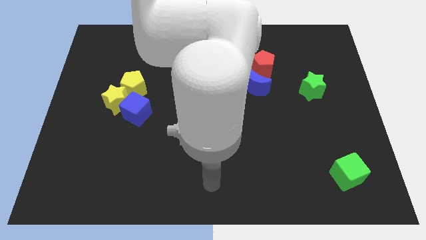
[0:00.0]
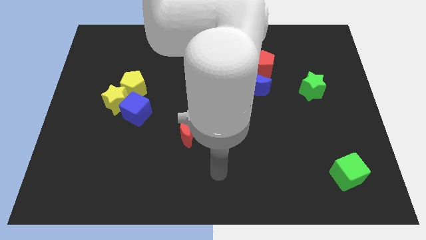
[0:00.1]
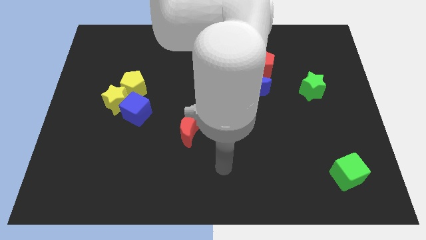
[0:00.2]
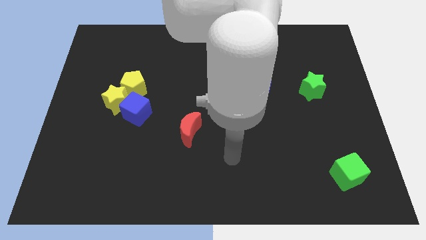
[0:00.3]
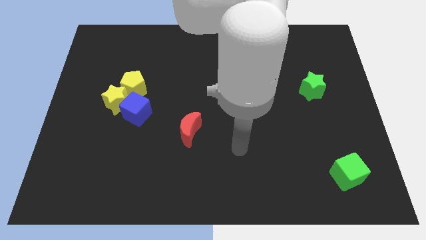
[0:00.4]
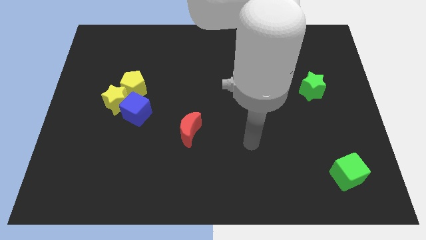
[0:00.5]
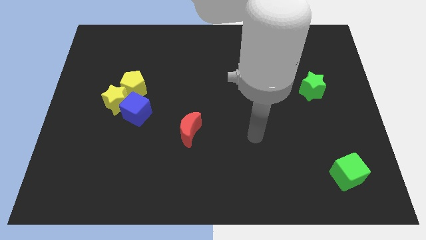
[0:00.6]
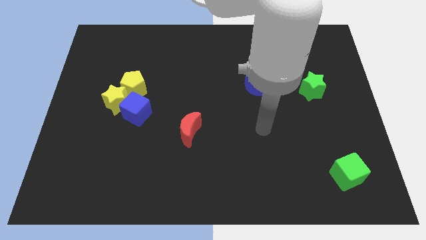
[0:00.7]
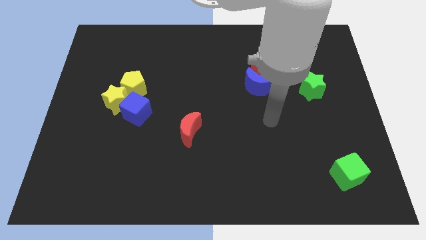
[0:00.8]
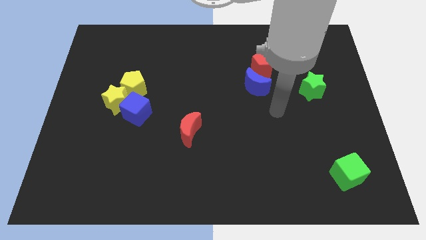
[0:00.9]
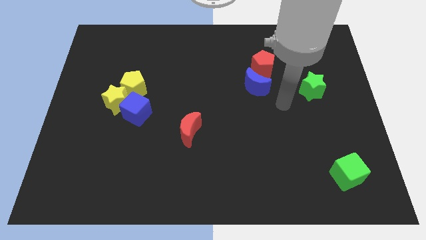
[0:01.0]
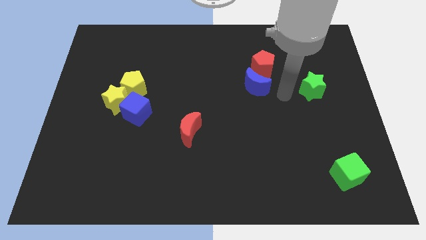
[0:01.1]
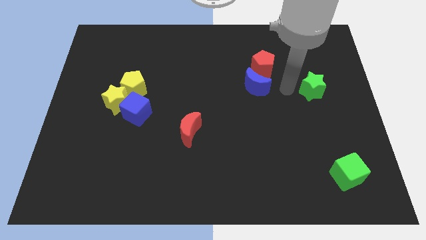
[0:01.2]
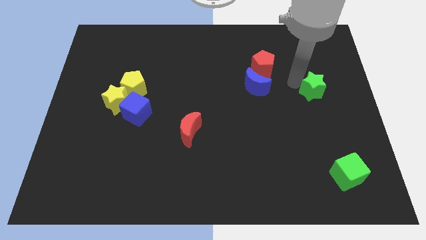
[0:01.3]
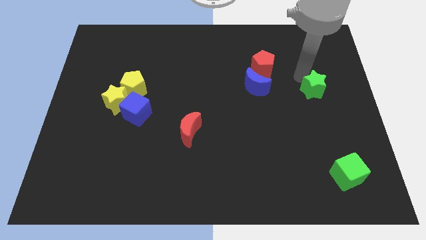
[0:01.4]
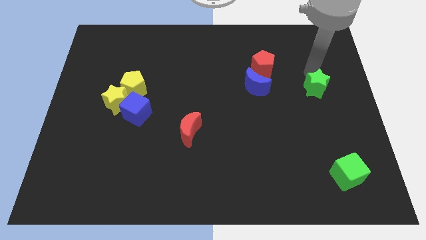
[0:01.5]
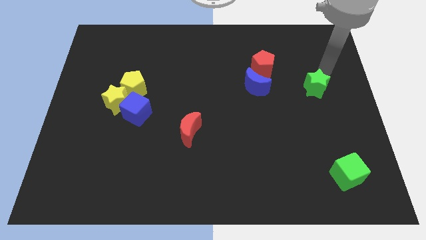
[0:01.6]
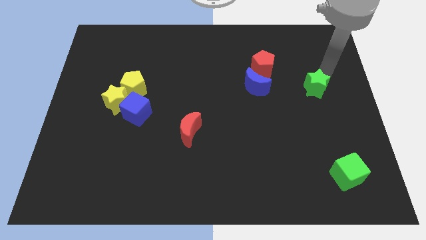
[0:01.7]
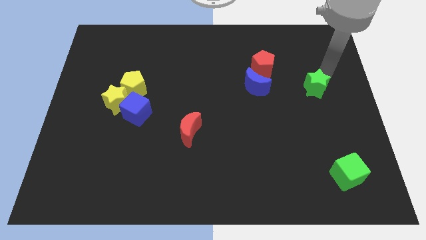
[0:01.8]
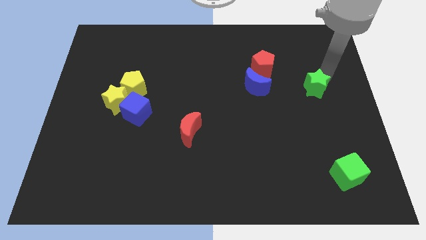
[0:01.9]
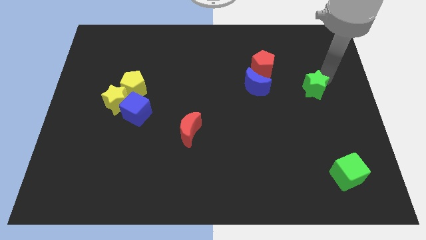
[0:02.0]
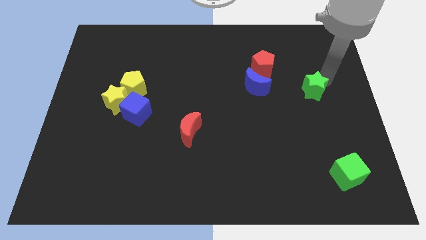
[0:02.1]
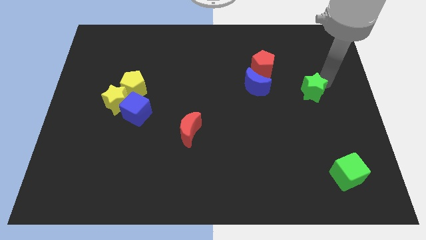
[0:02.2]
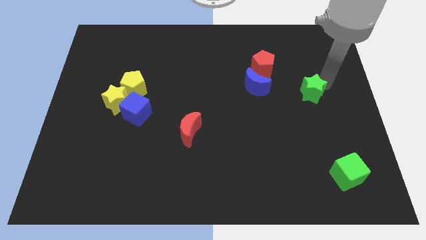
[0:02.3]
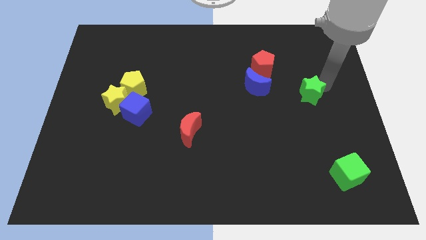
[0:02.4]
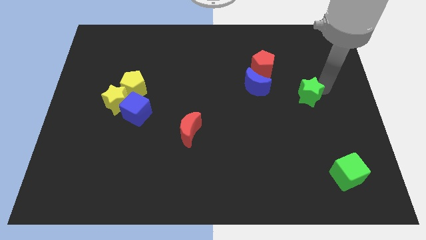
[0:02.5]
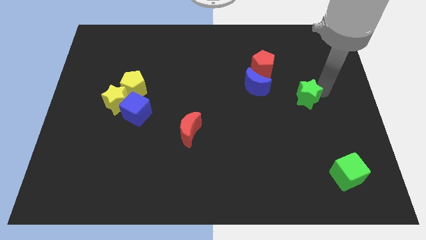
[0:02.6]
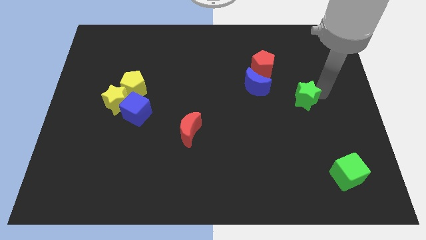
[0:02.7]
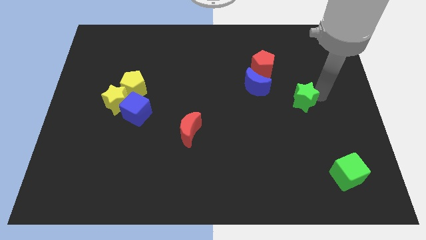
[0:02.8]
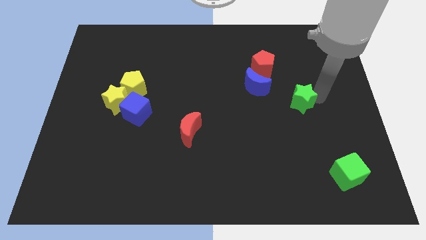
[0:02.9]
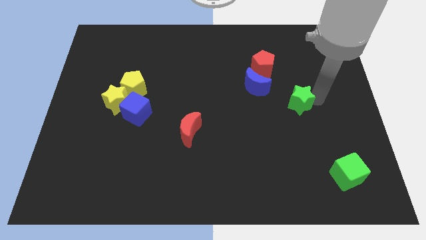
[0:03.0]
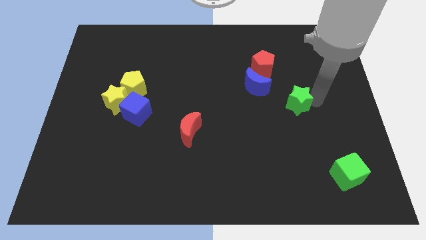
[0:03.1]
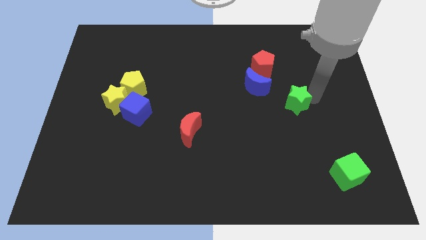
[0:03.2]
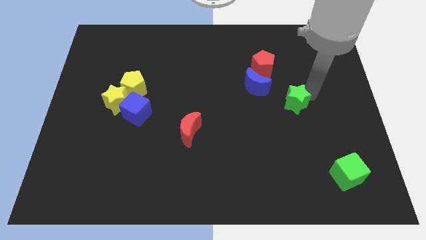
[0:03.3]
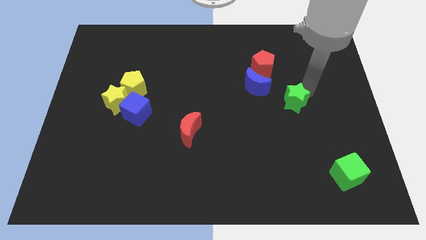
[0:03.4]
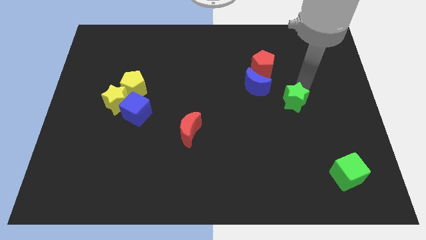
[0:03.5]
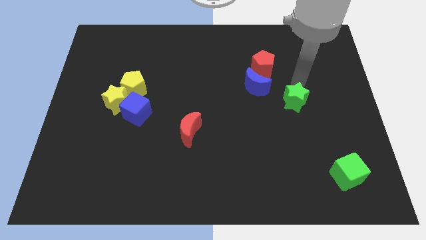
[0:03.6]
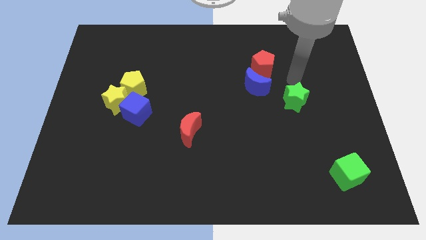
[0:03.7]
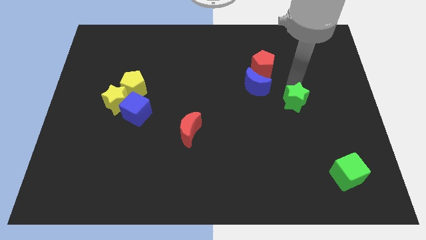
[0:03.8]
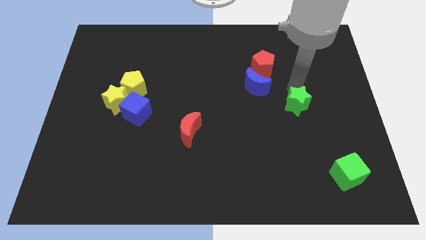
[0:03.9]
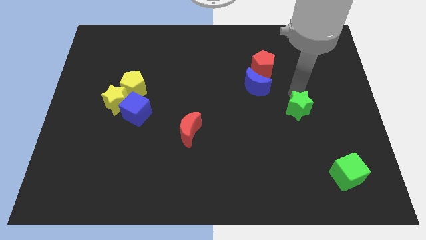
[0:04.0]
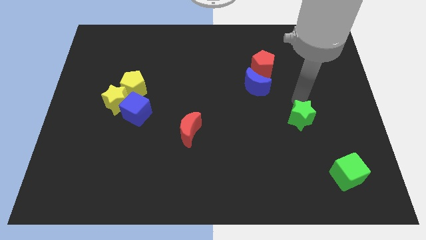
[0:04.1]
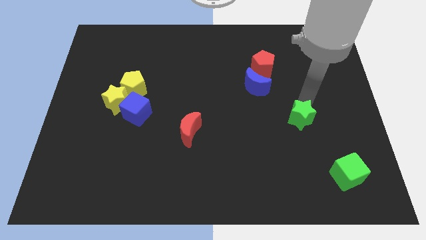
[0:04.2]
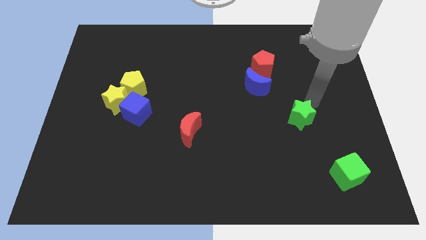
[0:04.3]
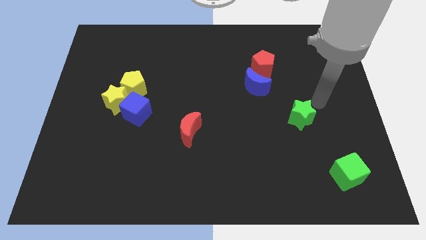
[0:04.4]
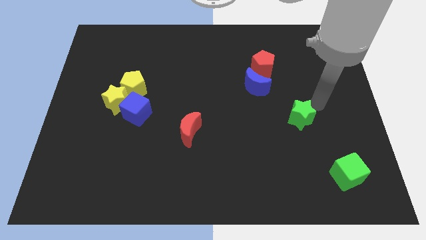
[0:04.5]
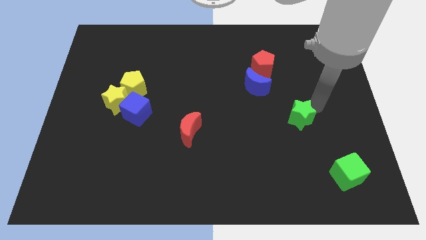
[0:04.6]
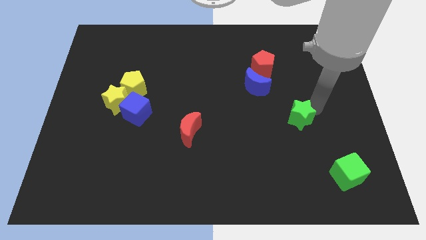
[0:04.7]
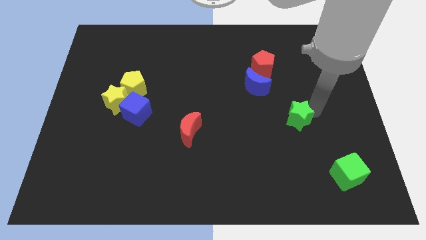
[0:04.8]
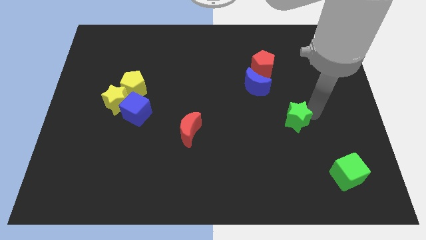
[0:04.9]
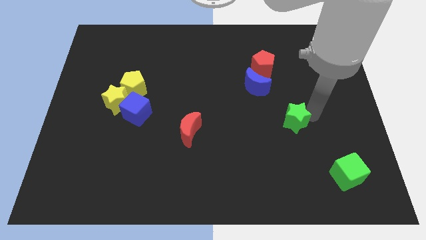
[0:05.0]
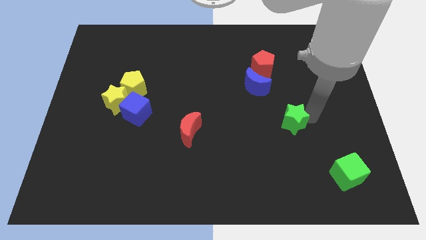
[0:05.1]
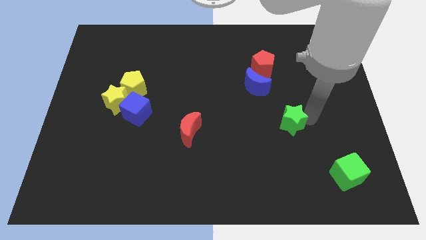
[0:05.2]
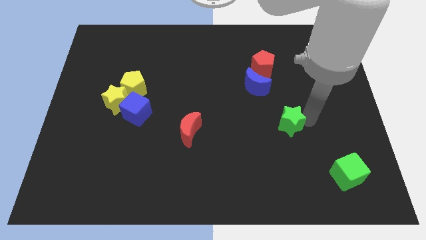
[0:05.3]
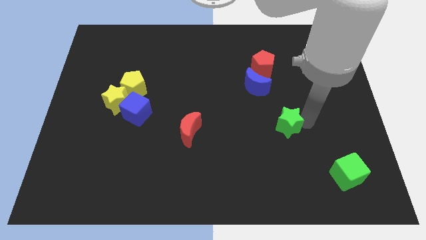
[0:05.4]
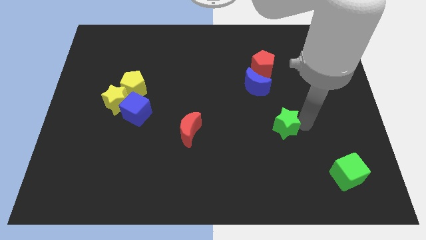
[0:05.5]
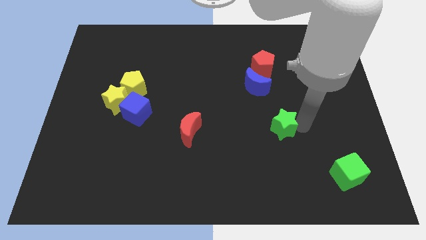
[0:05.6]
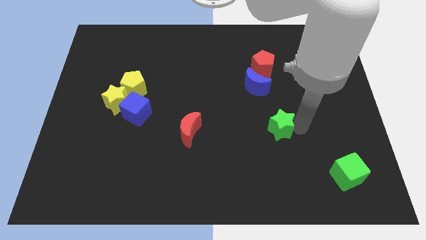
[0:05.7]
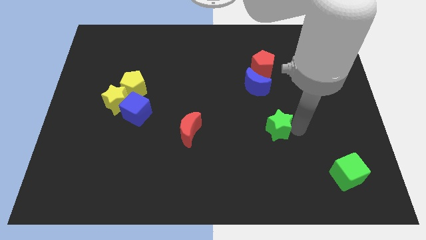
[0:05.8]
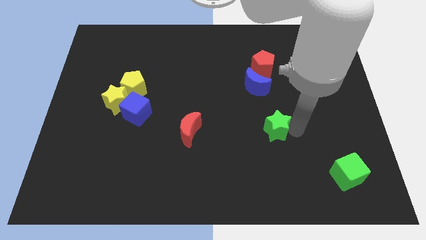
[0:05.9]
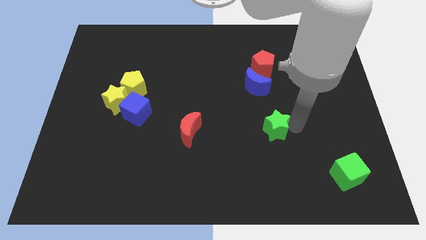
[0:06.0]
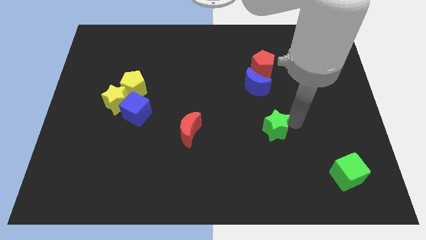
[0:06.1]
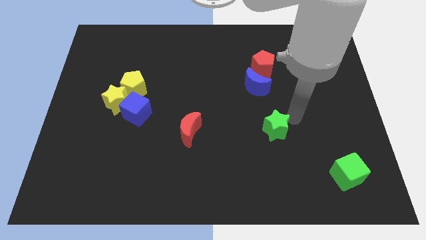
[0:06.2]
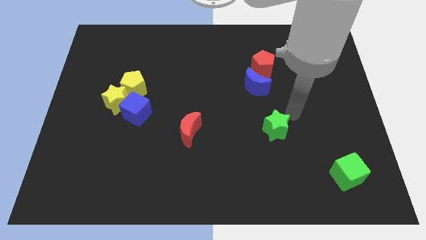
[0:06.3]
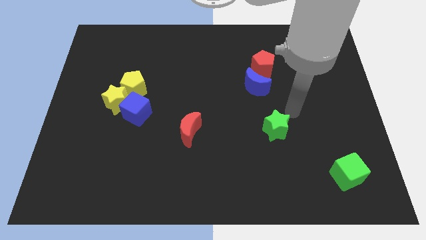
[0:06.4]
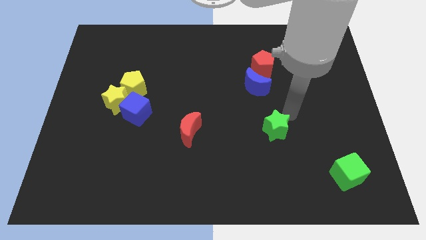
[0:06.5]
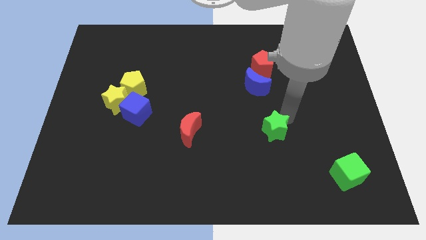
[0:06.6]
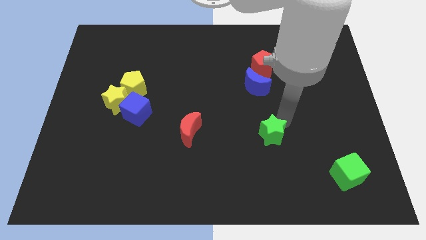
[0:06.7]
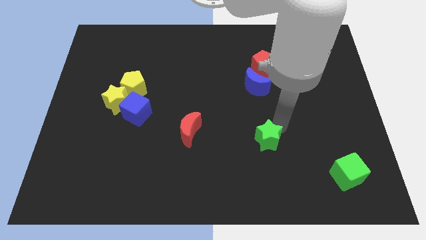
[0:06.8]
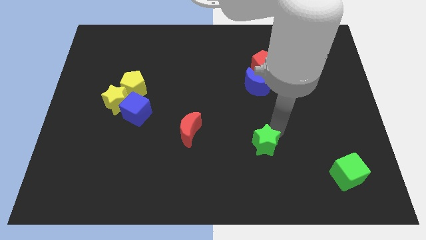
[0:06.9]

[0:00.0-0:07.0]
slide the green star downwards and left diagonally

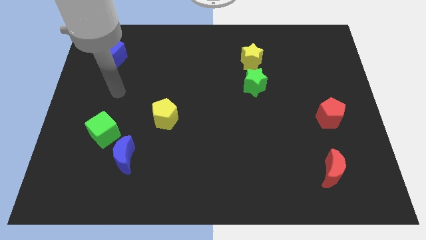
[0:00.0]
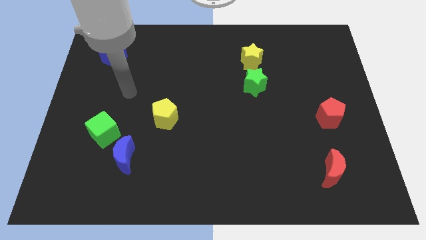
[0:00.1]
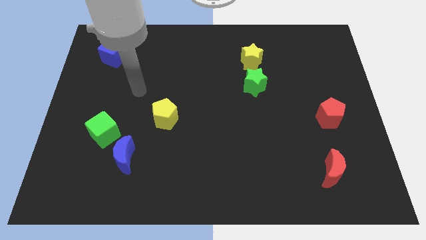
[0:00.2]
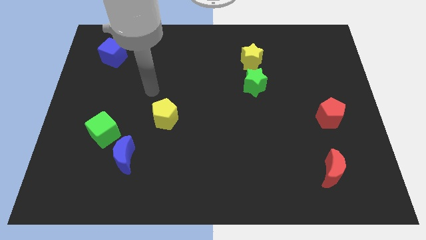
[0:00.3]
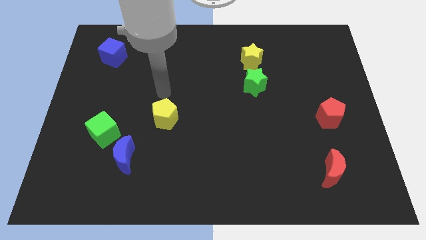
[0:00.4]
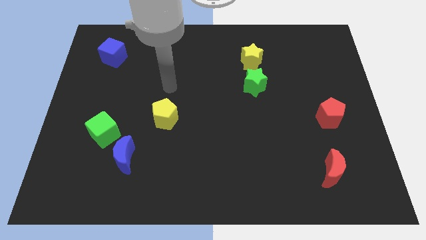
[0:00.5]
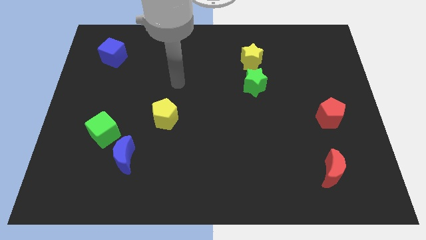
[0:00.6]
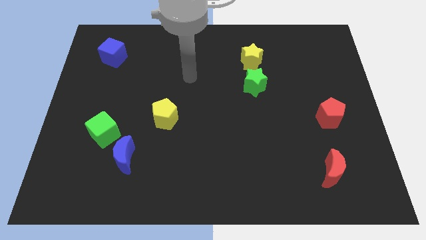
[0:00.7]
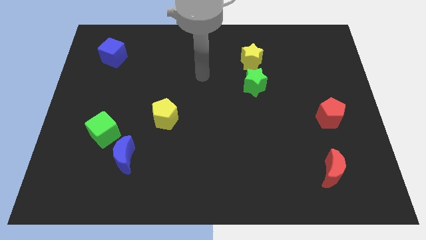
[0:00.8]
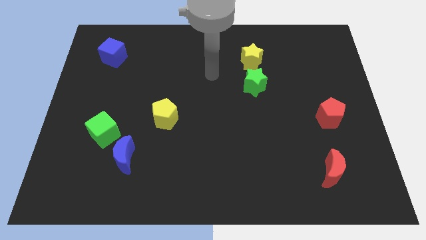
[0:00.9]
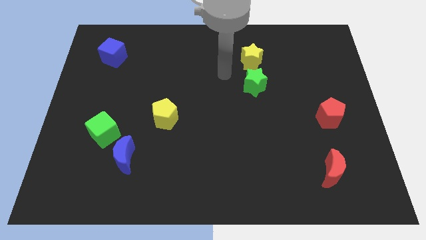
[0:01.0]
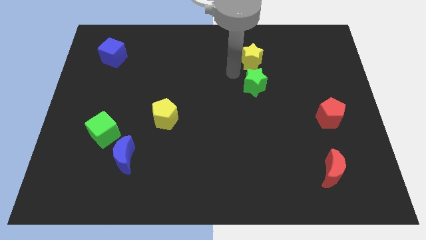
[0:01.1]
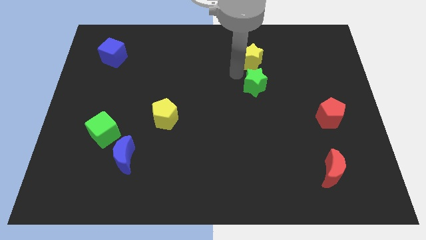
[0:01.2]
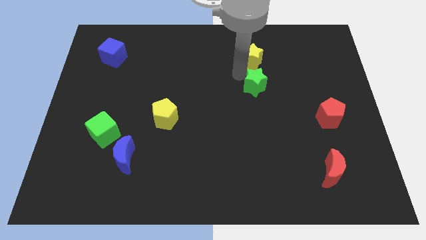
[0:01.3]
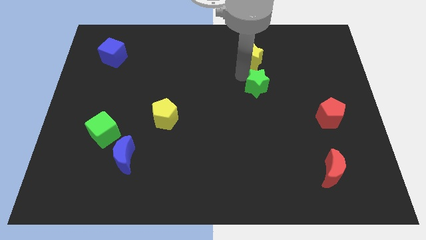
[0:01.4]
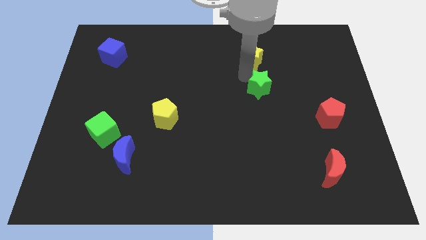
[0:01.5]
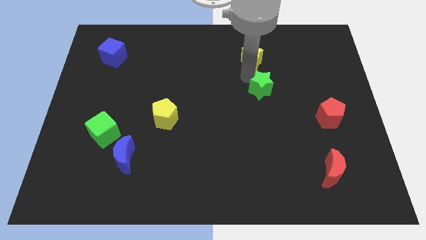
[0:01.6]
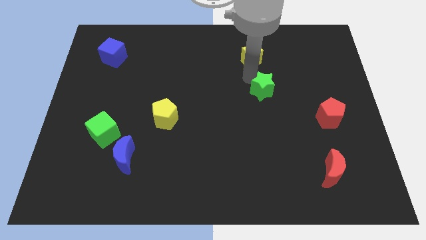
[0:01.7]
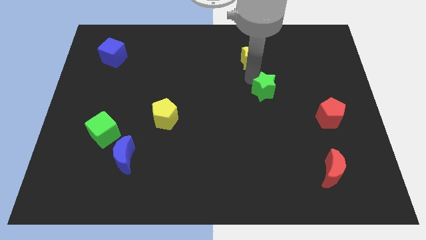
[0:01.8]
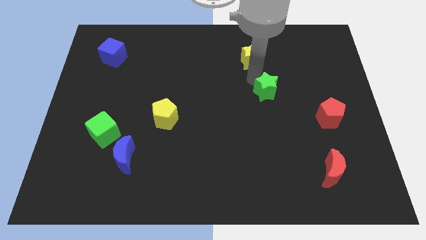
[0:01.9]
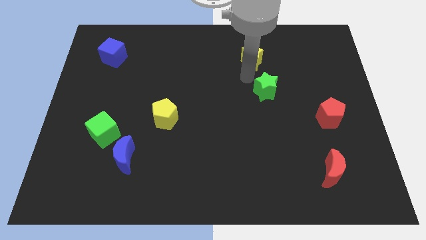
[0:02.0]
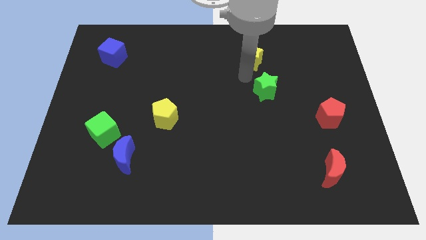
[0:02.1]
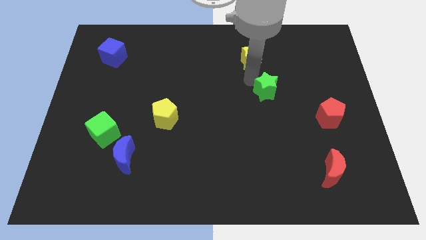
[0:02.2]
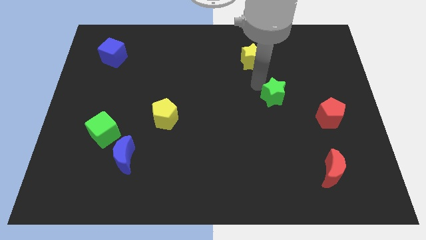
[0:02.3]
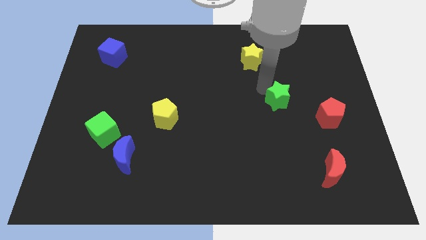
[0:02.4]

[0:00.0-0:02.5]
push the green star a bit downwards and to the right
